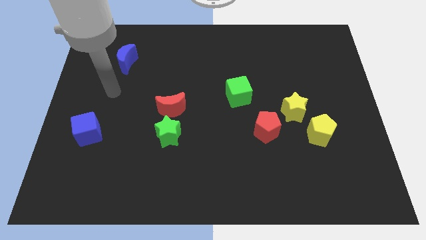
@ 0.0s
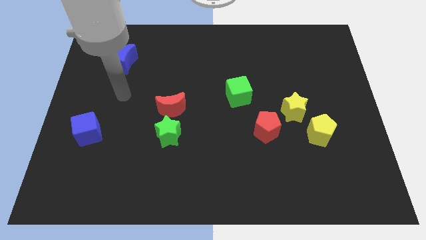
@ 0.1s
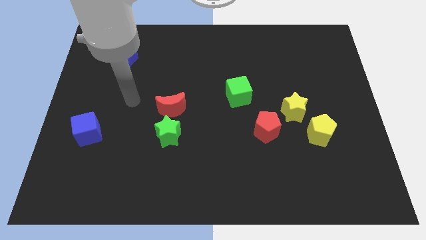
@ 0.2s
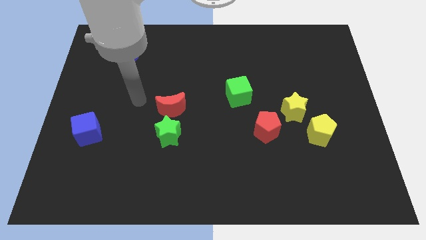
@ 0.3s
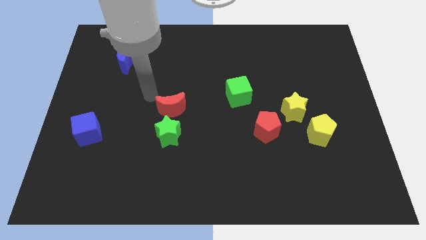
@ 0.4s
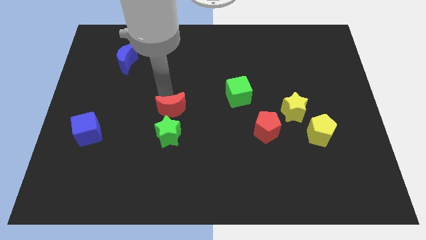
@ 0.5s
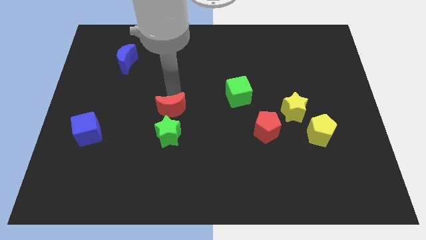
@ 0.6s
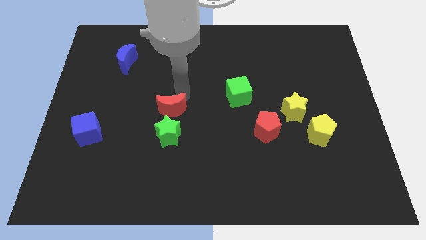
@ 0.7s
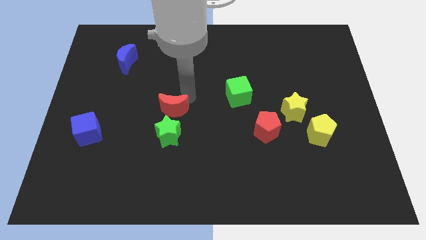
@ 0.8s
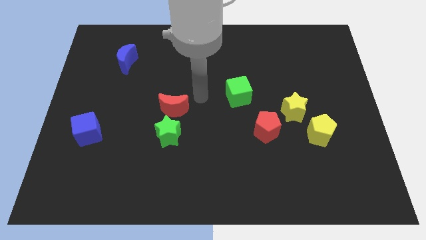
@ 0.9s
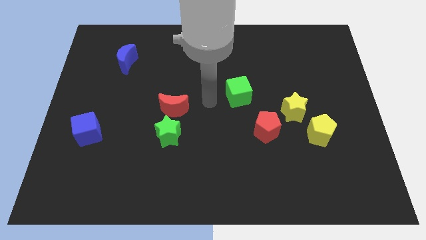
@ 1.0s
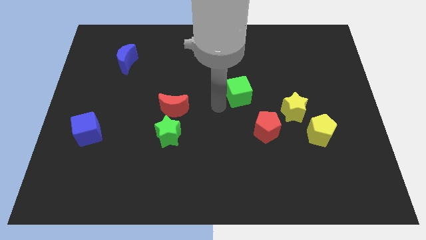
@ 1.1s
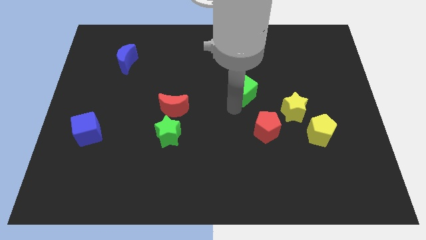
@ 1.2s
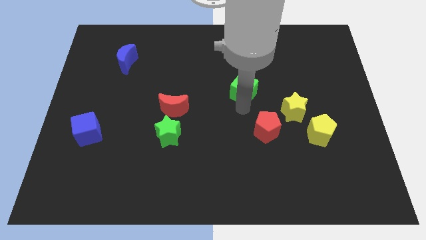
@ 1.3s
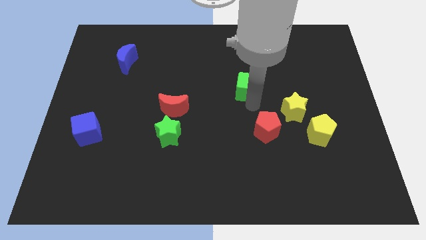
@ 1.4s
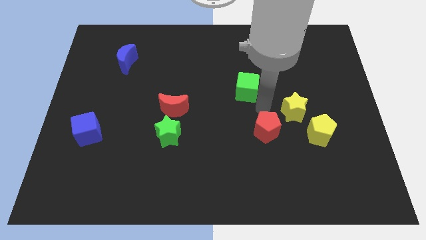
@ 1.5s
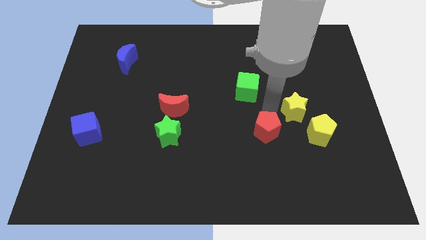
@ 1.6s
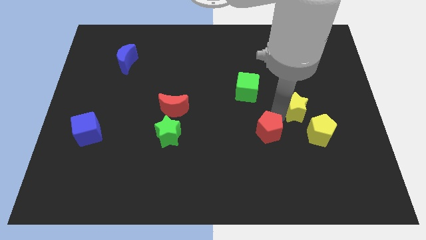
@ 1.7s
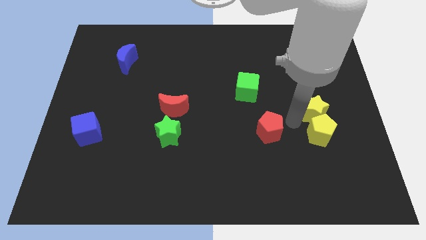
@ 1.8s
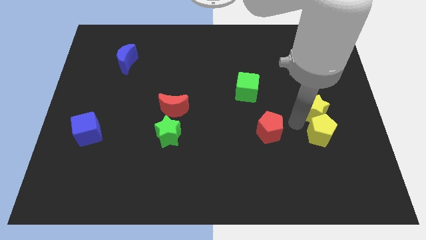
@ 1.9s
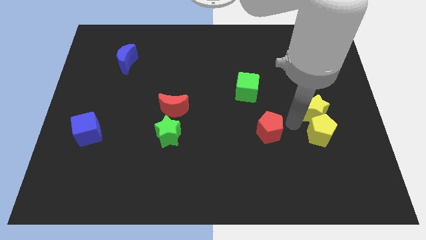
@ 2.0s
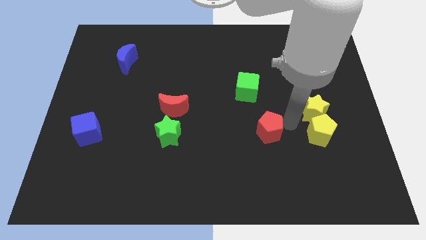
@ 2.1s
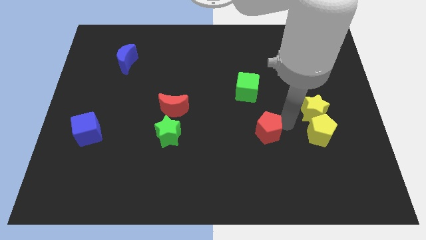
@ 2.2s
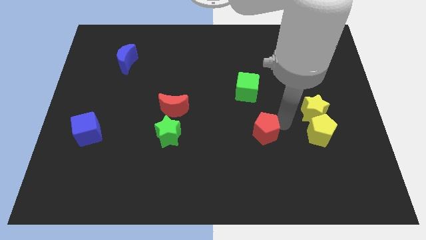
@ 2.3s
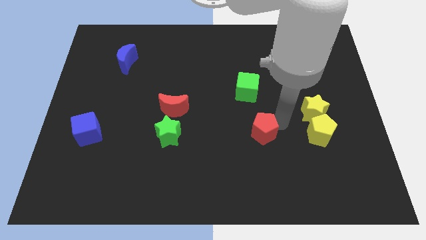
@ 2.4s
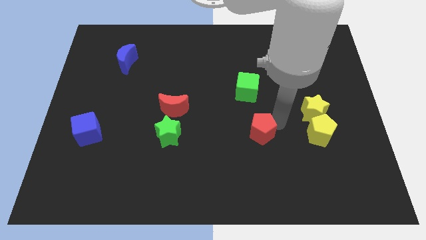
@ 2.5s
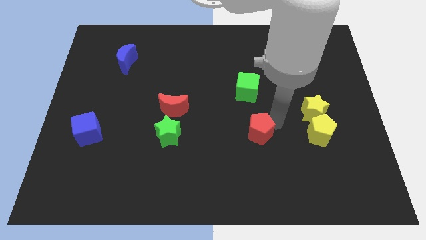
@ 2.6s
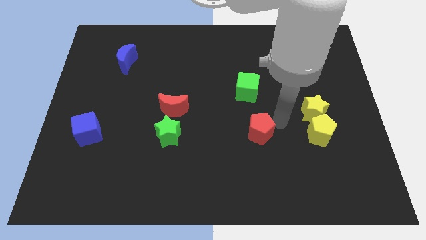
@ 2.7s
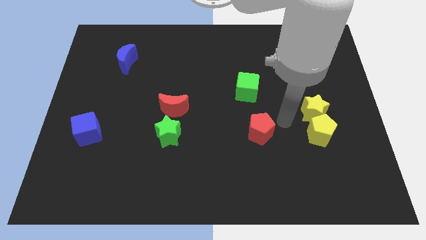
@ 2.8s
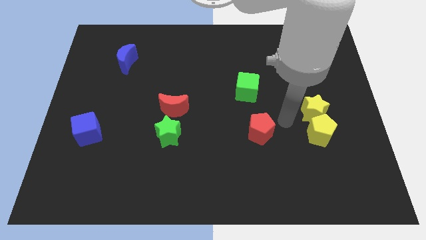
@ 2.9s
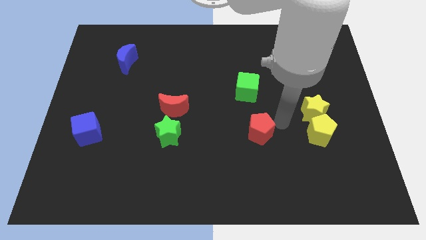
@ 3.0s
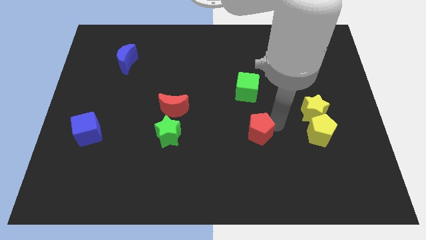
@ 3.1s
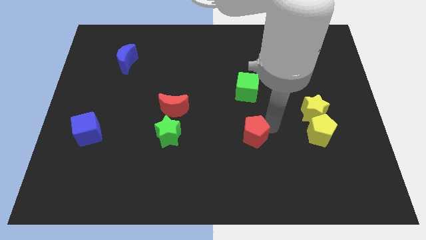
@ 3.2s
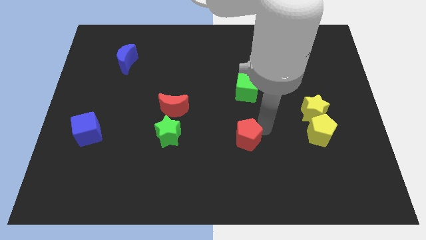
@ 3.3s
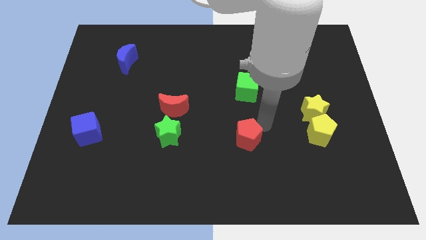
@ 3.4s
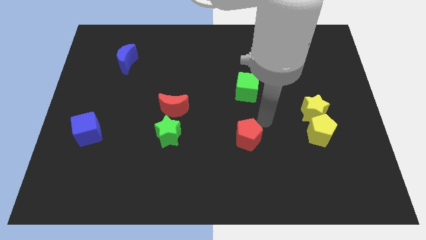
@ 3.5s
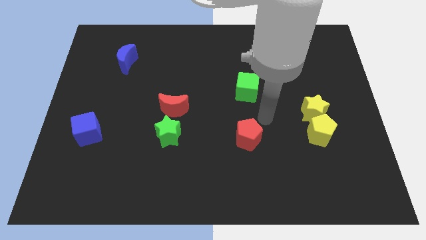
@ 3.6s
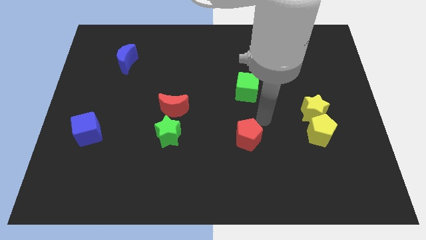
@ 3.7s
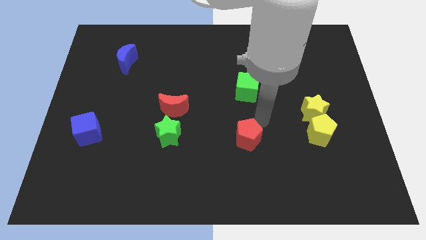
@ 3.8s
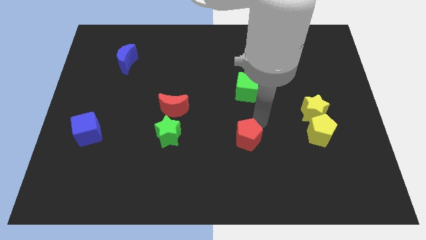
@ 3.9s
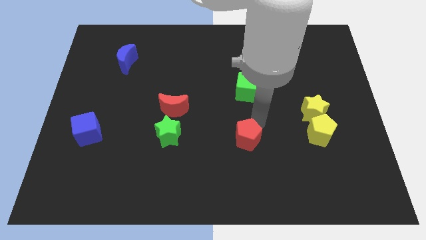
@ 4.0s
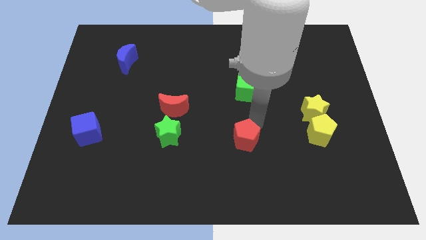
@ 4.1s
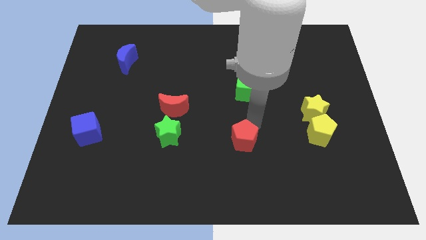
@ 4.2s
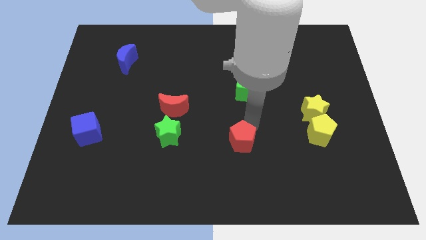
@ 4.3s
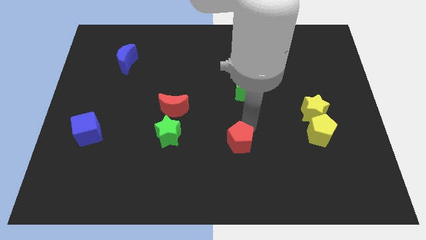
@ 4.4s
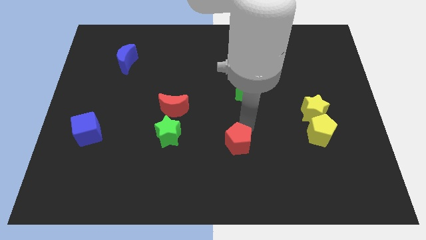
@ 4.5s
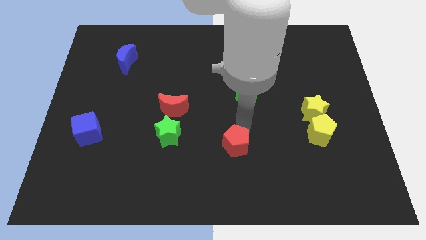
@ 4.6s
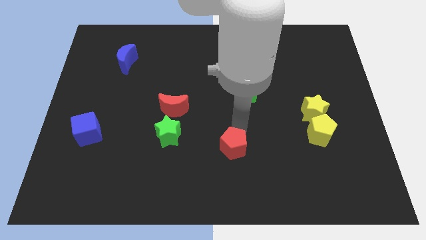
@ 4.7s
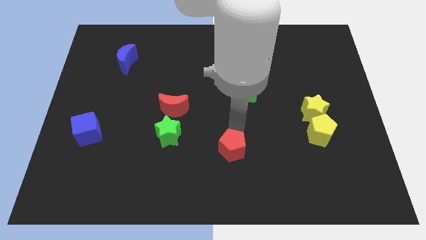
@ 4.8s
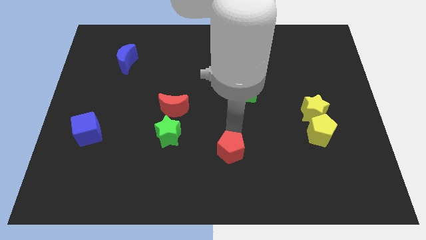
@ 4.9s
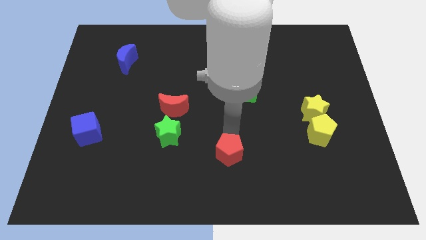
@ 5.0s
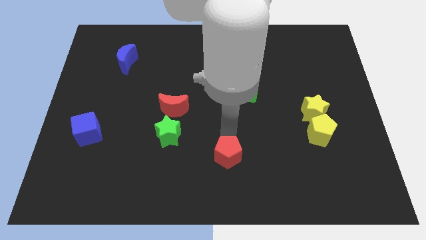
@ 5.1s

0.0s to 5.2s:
move the red pentagon to the bottom

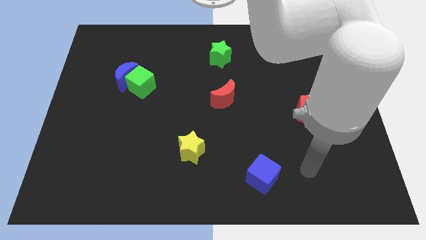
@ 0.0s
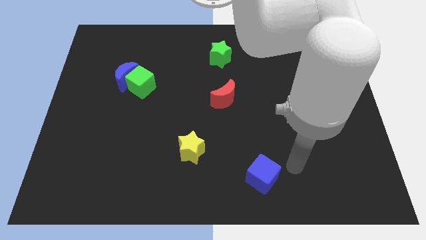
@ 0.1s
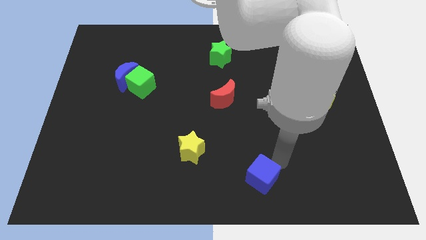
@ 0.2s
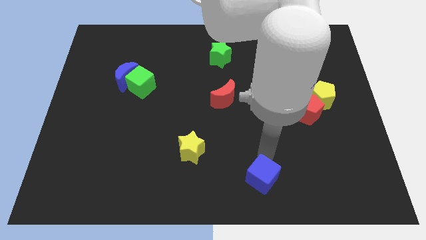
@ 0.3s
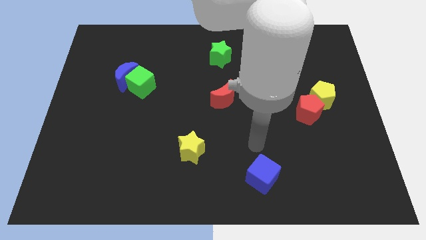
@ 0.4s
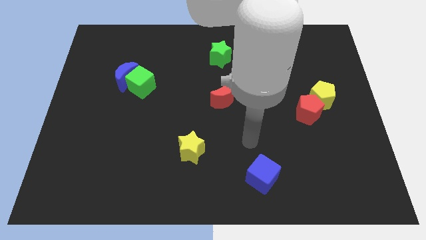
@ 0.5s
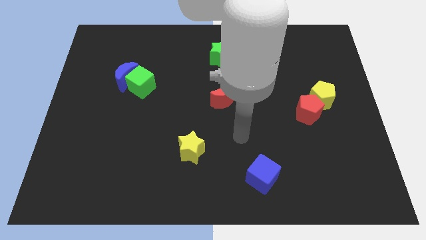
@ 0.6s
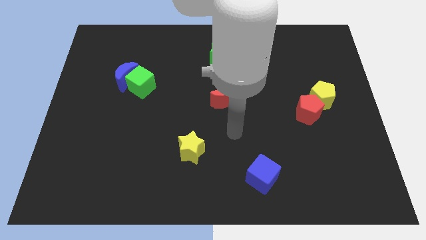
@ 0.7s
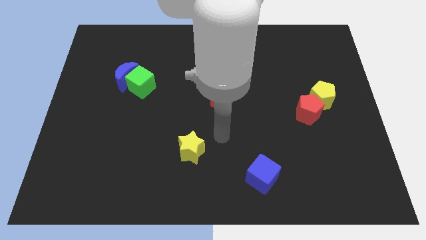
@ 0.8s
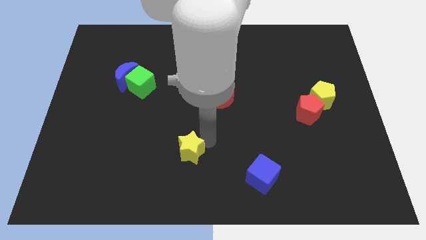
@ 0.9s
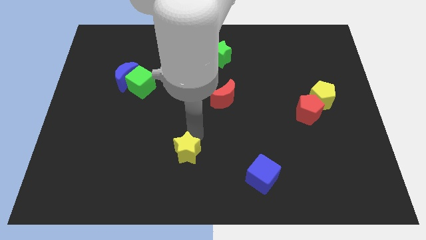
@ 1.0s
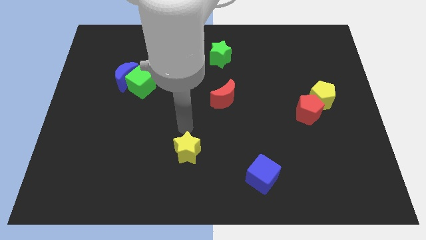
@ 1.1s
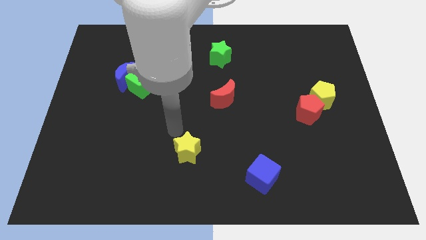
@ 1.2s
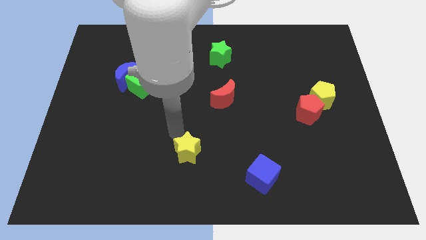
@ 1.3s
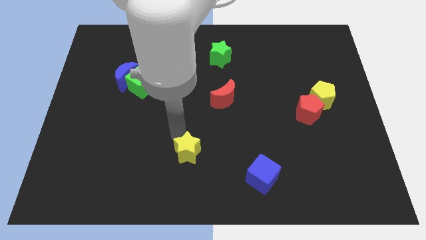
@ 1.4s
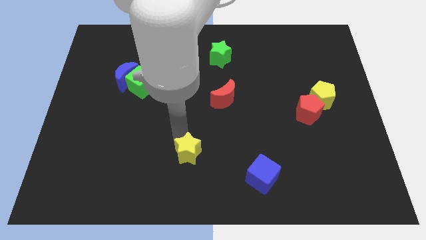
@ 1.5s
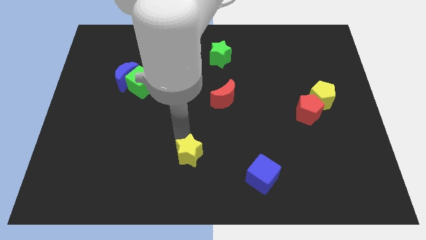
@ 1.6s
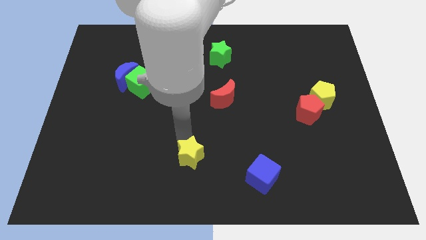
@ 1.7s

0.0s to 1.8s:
slide the yellow star to the bottom
